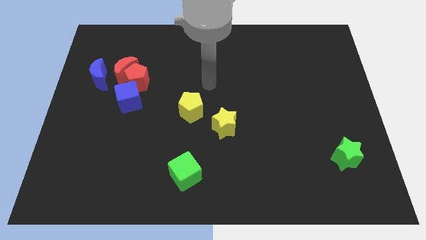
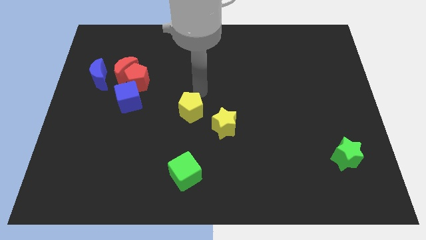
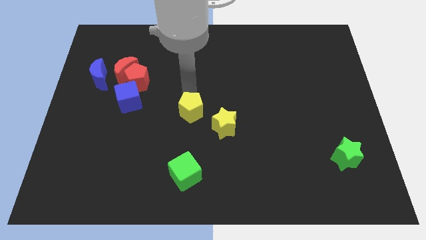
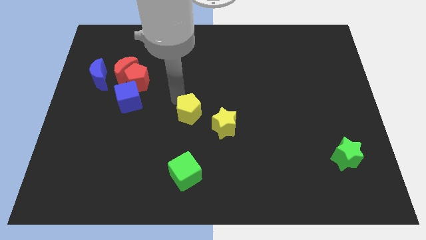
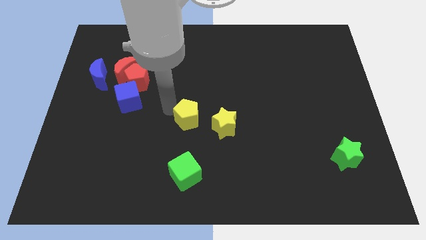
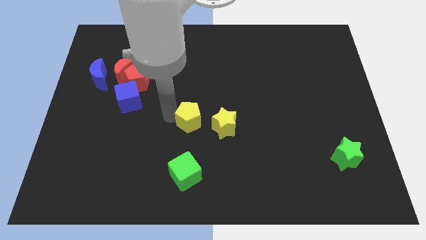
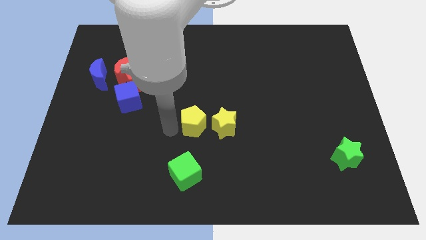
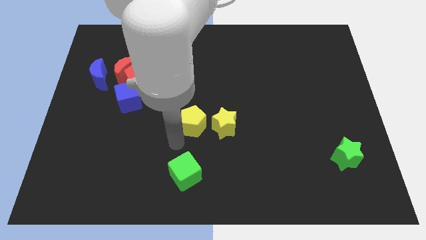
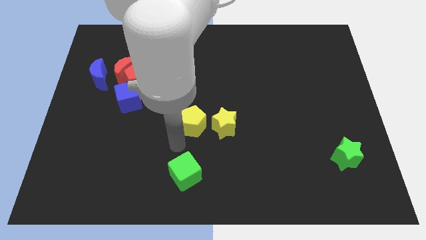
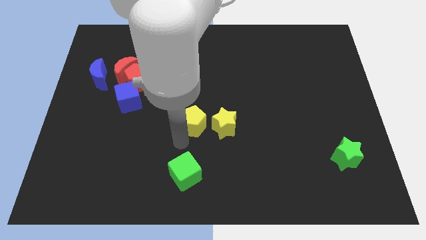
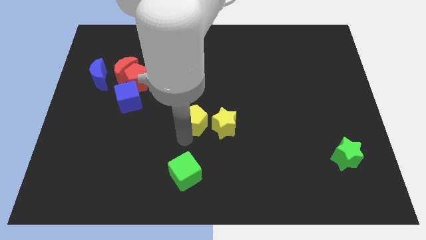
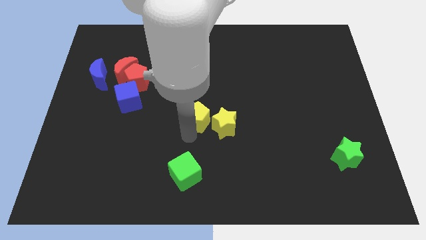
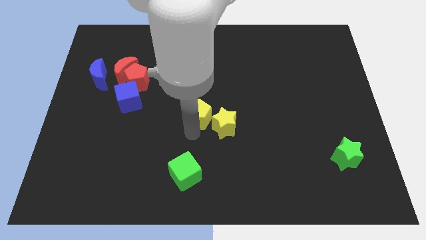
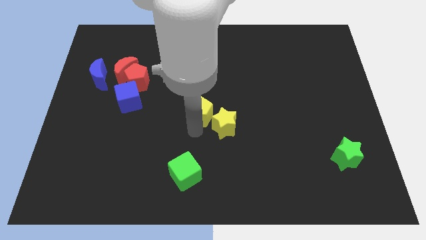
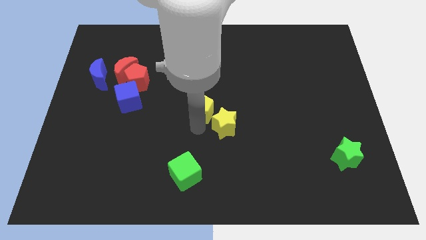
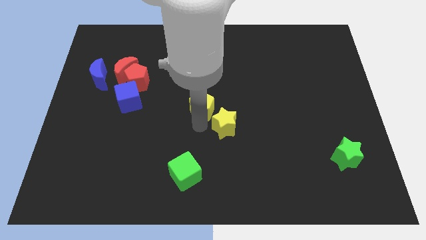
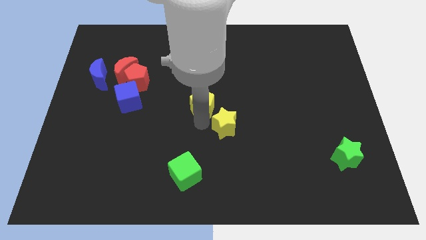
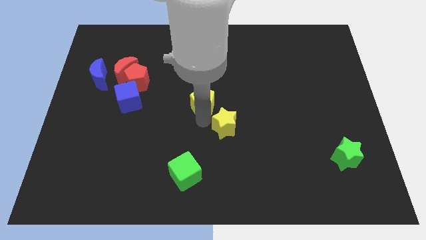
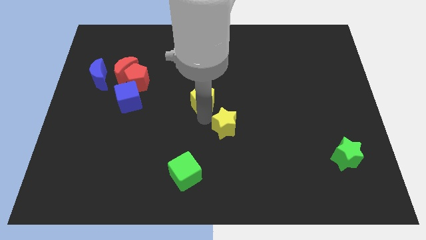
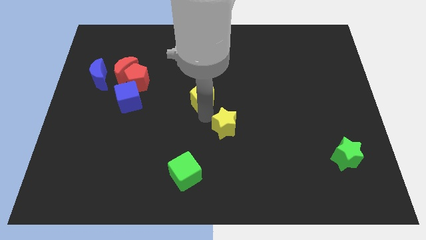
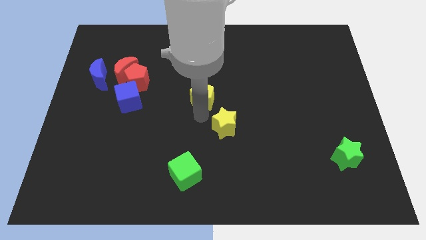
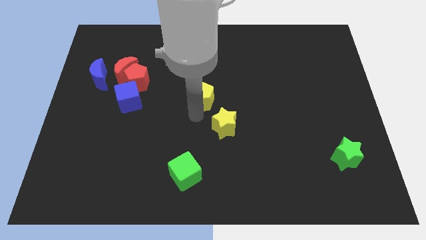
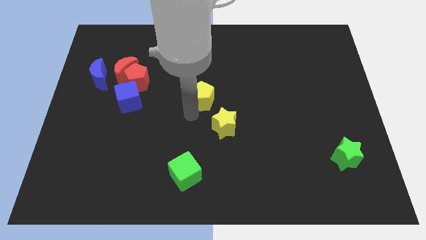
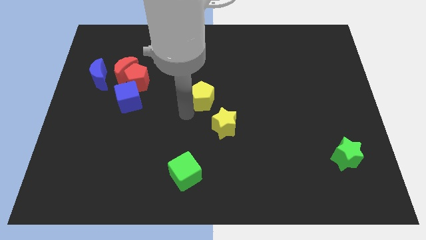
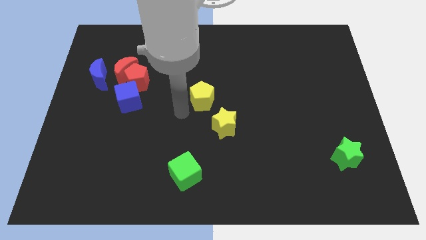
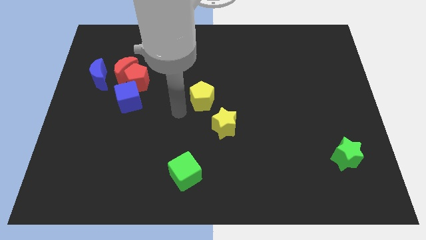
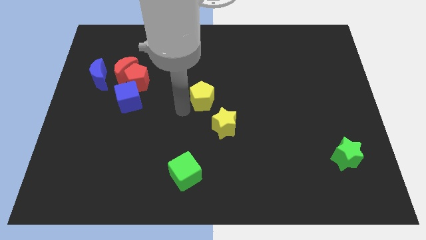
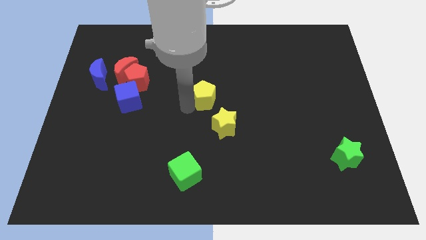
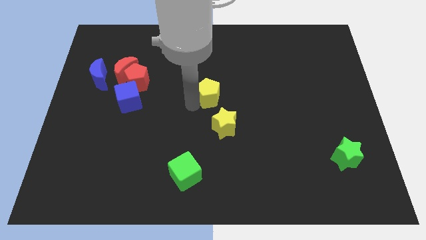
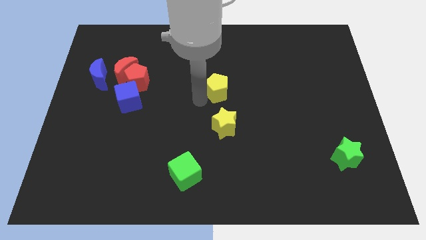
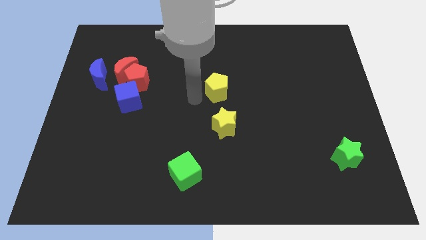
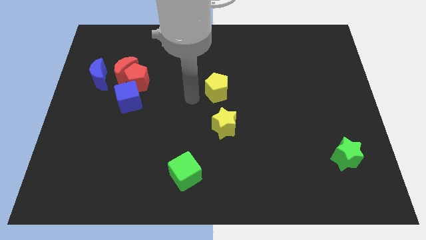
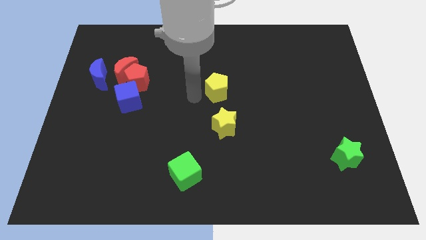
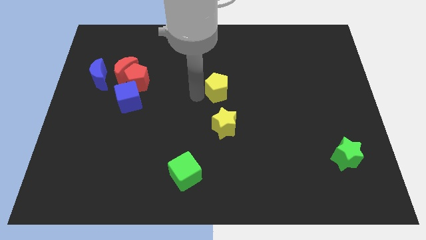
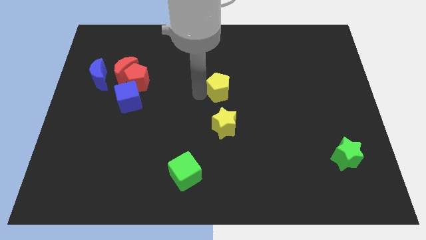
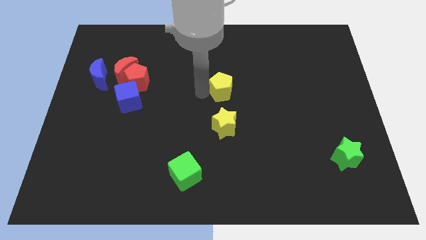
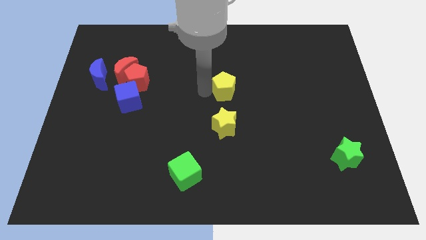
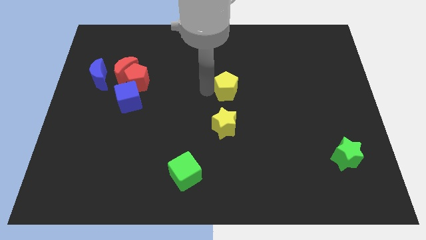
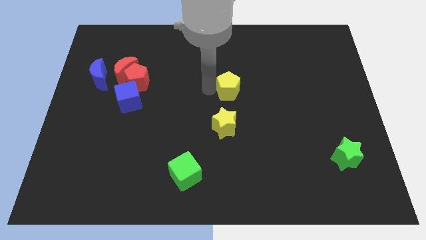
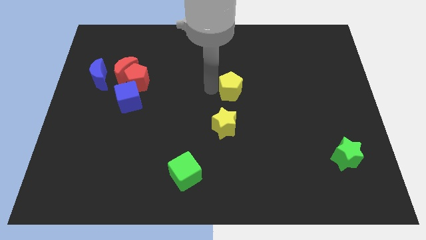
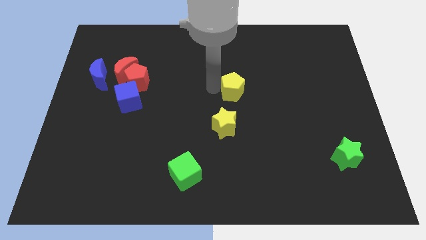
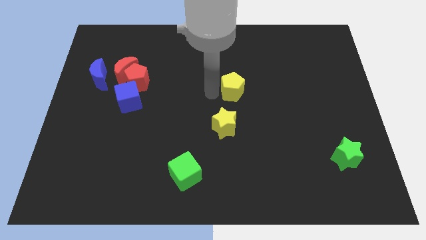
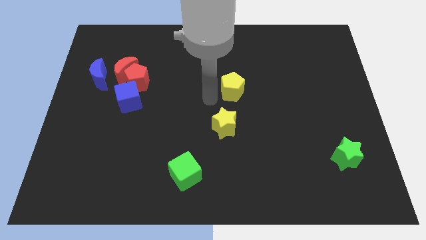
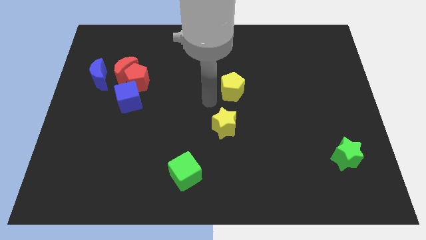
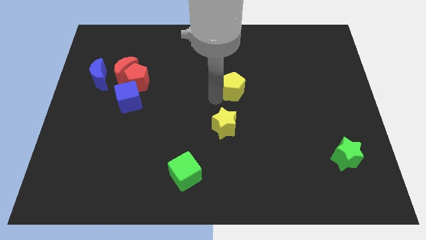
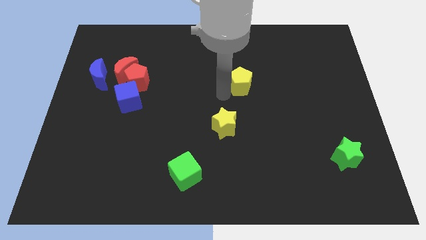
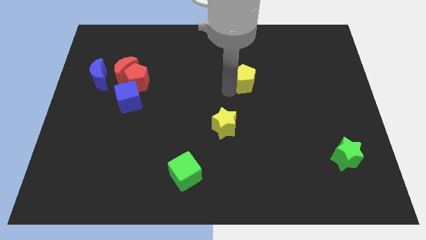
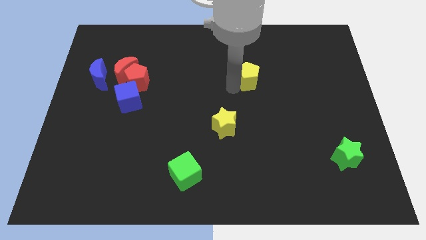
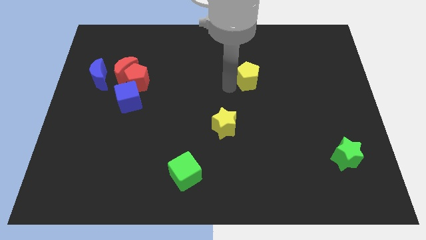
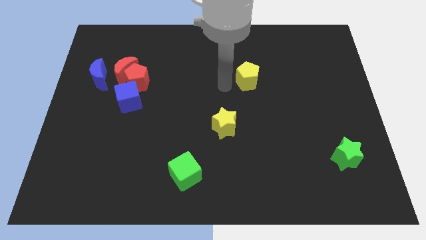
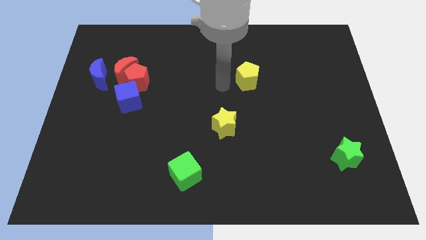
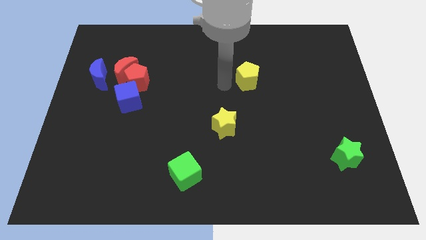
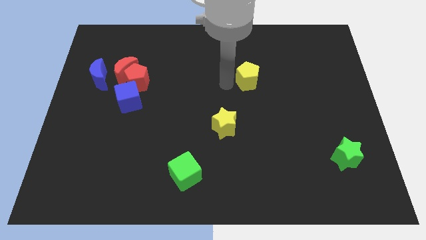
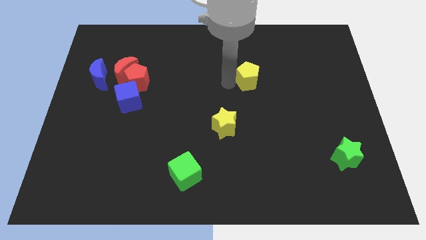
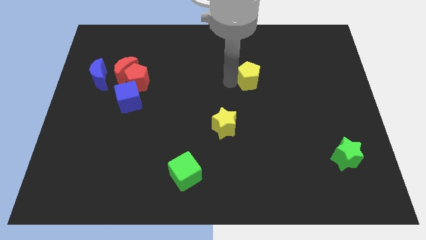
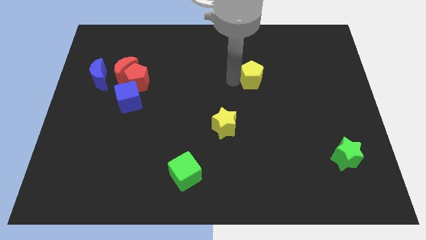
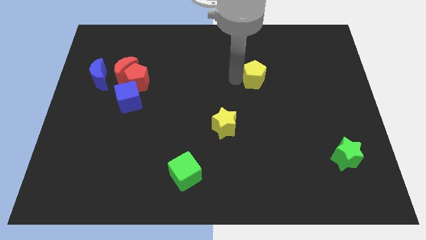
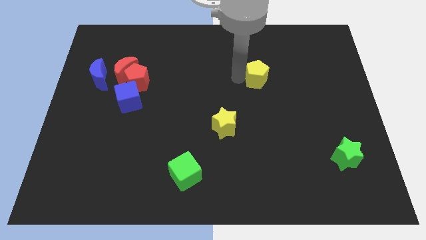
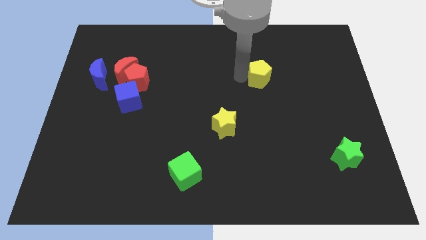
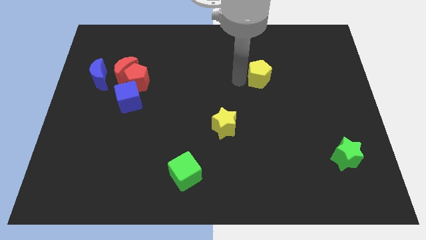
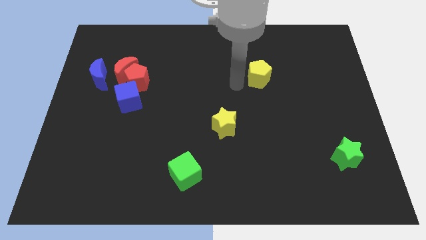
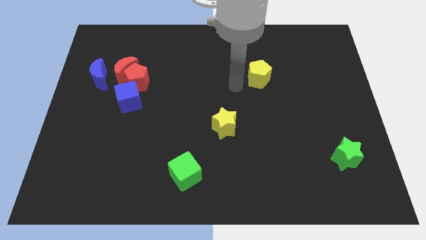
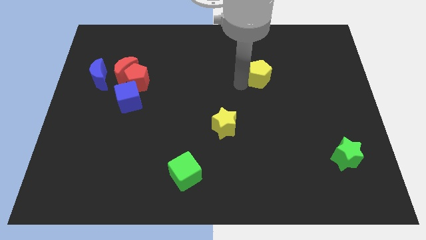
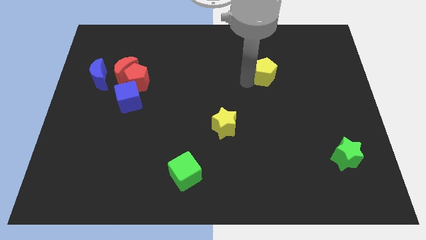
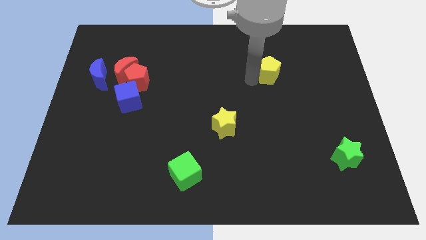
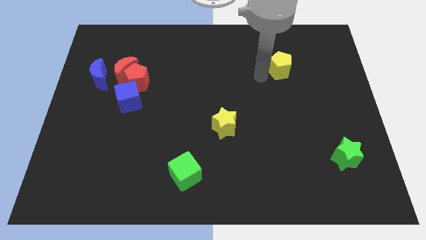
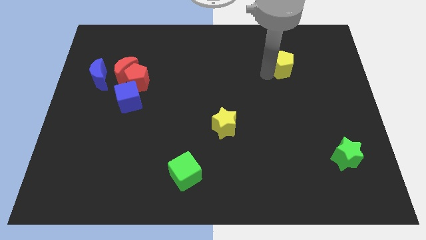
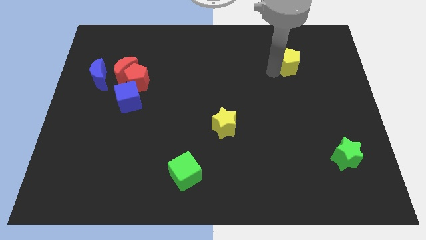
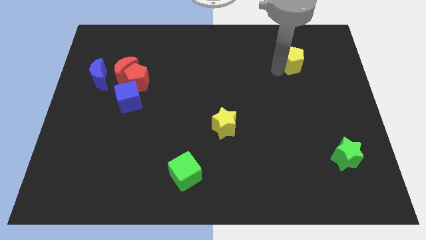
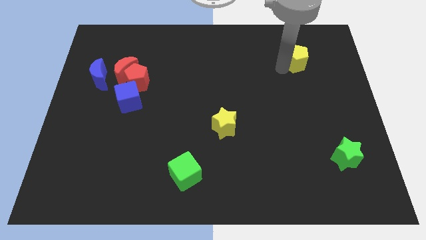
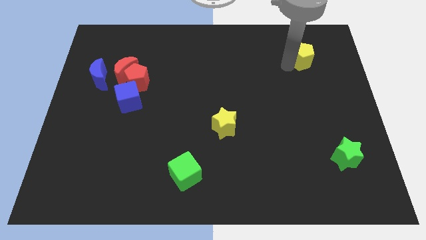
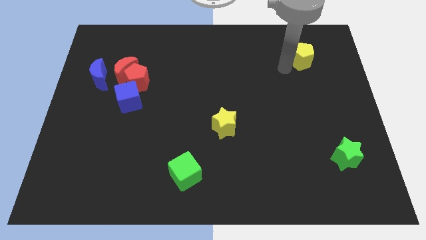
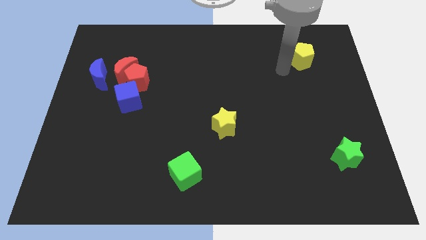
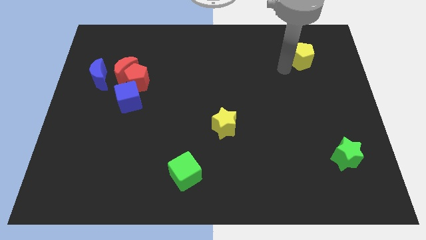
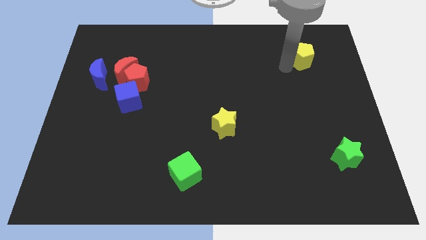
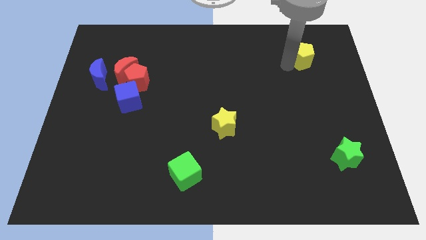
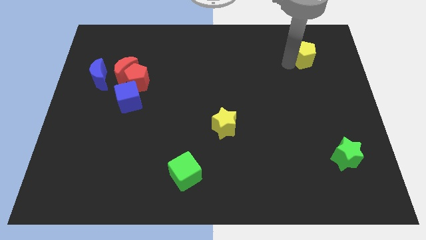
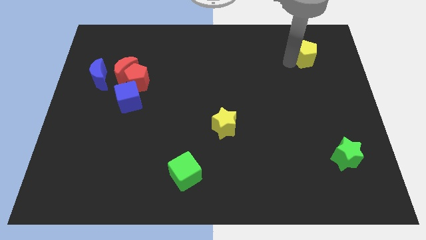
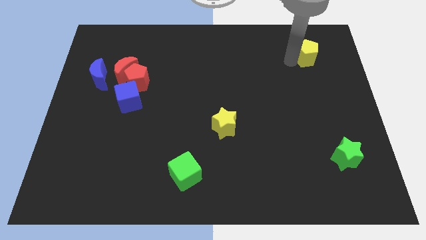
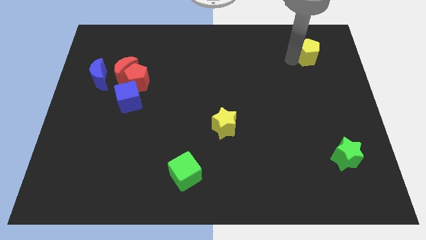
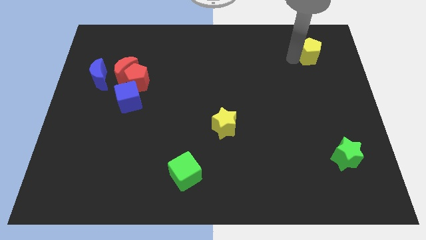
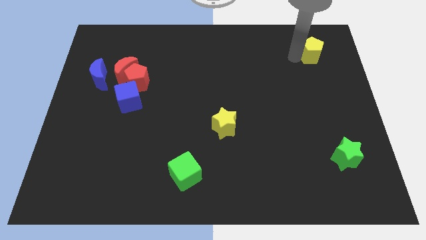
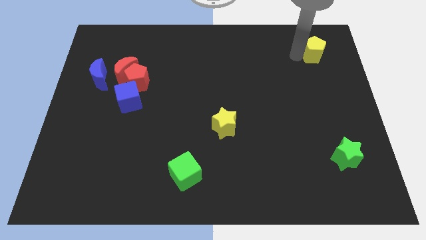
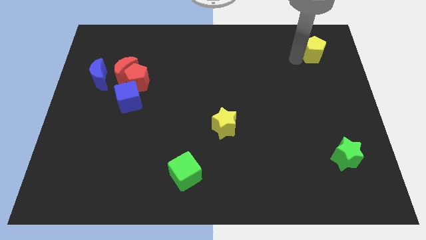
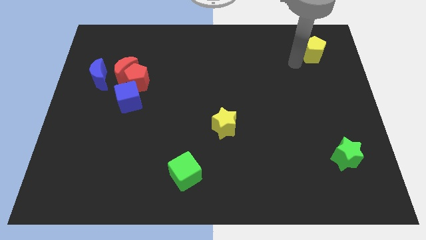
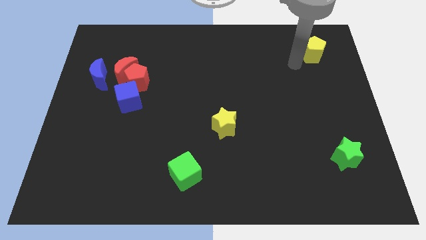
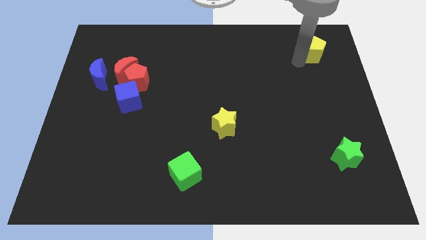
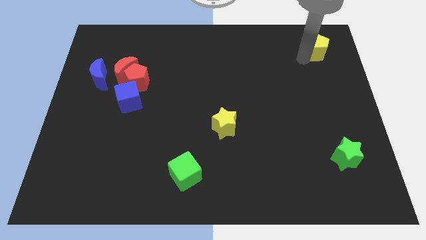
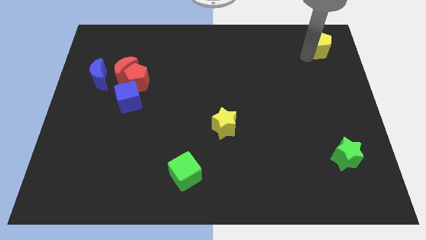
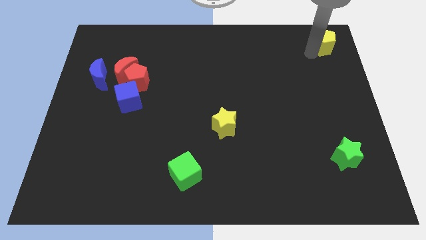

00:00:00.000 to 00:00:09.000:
put the yellow pentagon to the top right of the board
